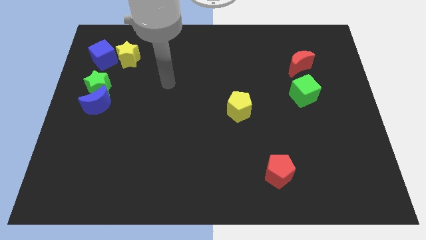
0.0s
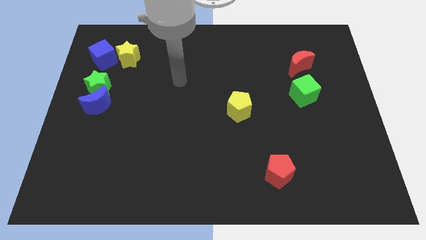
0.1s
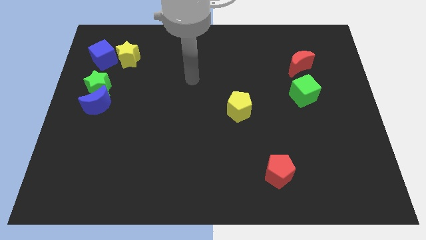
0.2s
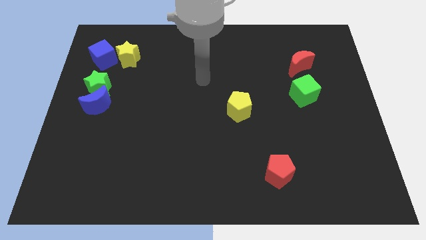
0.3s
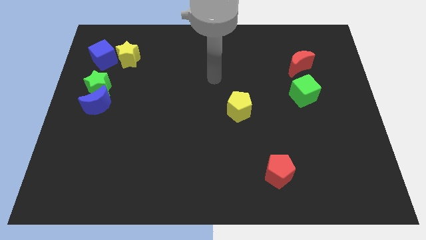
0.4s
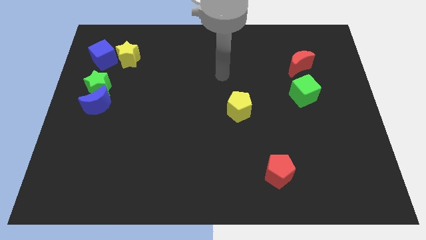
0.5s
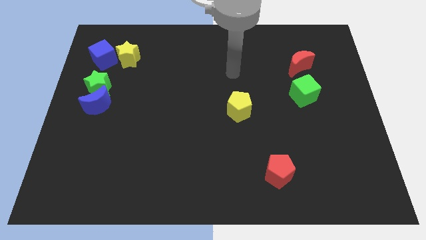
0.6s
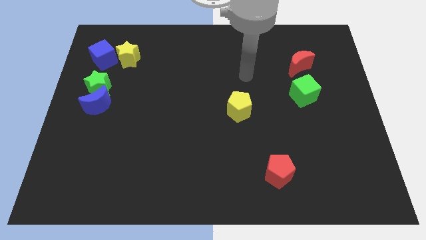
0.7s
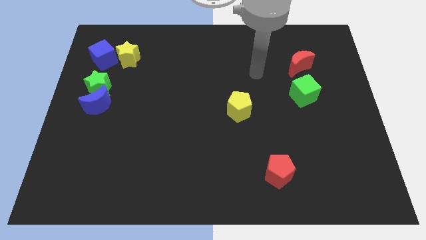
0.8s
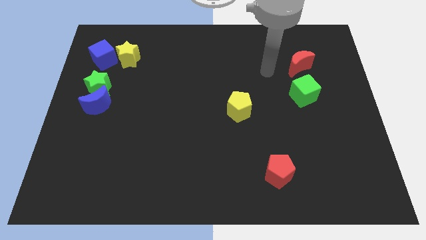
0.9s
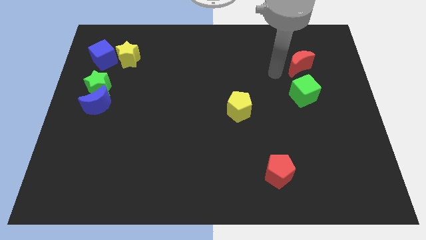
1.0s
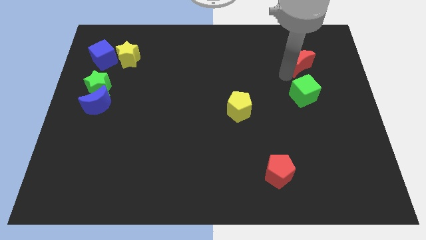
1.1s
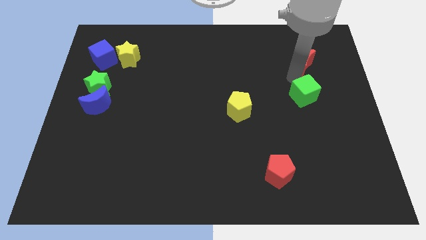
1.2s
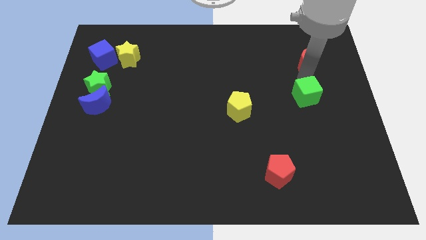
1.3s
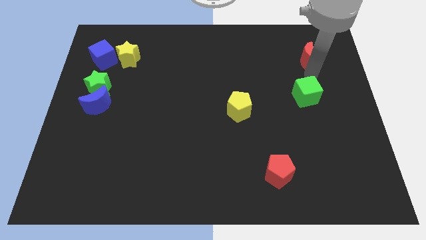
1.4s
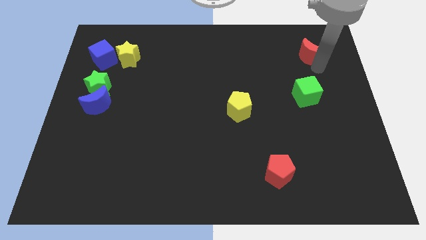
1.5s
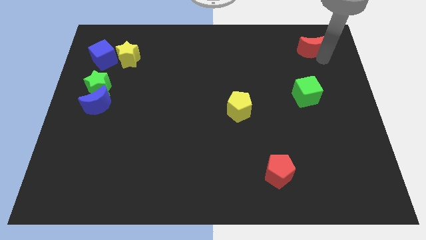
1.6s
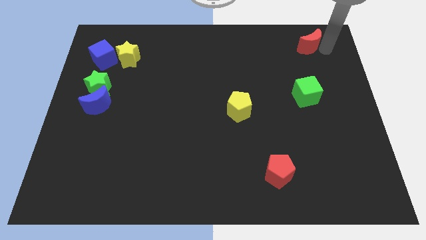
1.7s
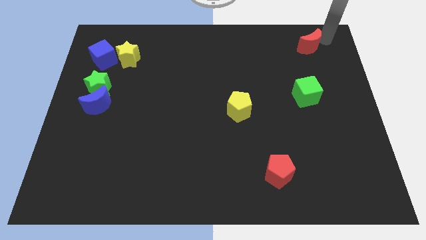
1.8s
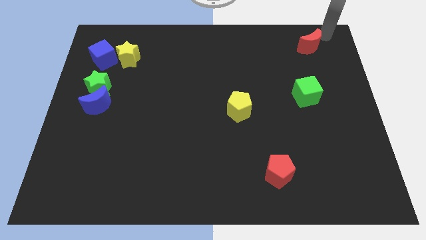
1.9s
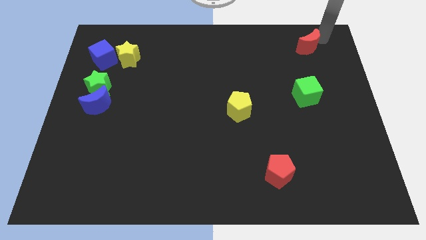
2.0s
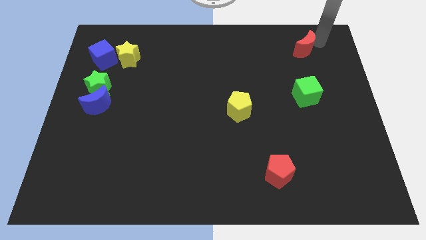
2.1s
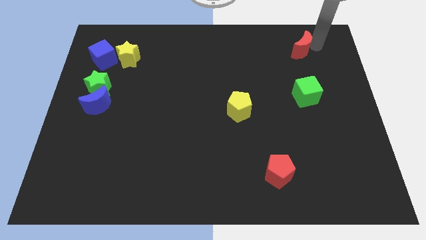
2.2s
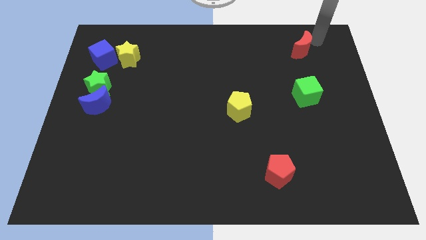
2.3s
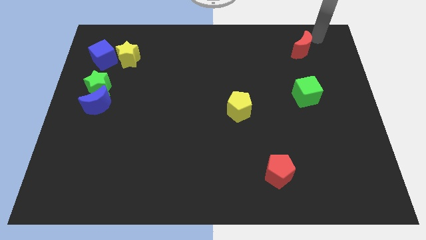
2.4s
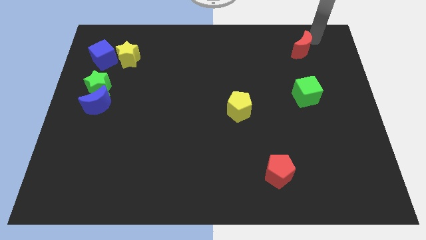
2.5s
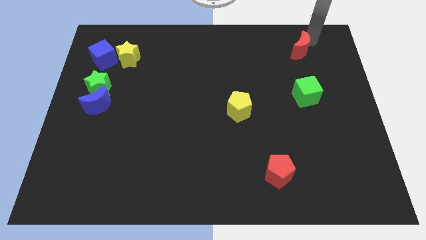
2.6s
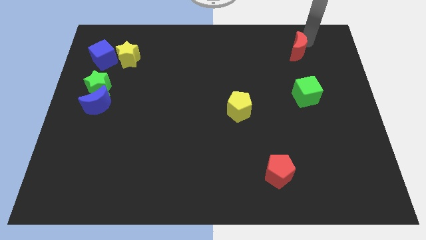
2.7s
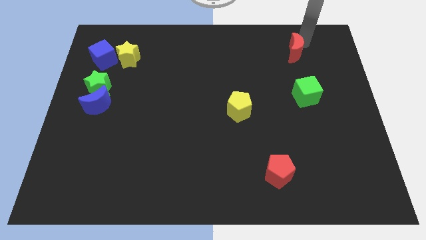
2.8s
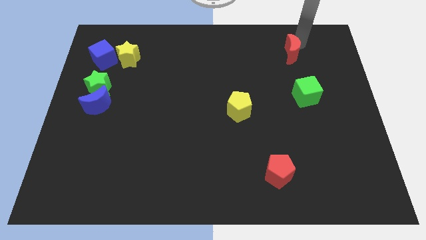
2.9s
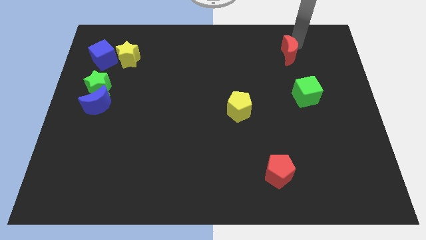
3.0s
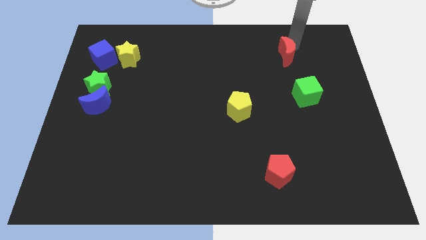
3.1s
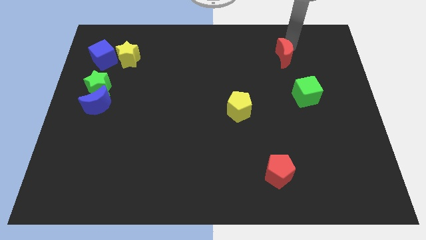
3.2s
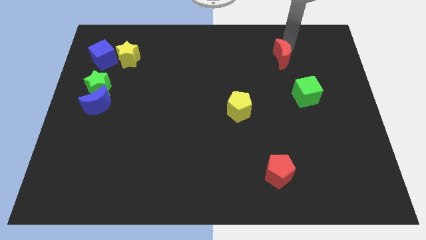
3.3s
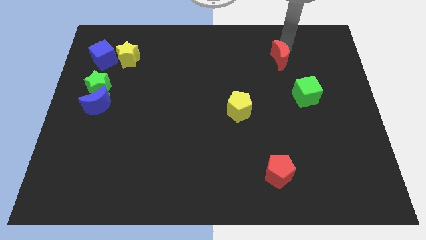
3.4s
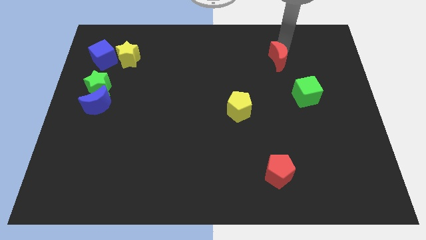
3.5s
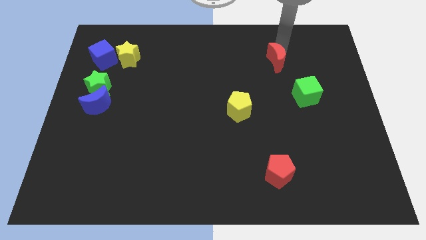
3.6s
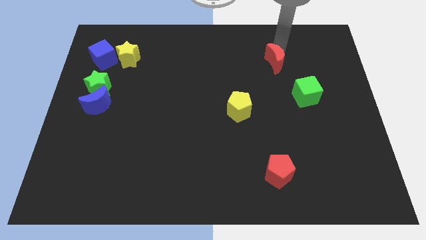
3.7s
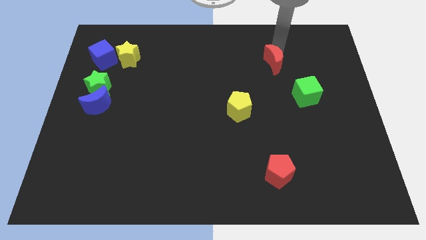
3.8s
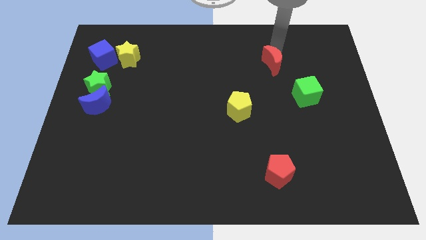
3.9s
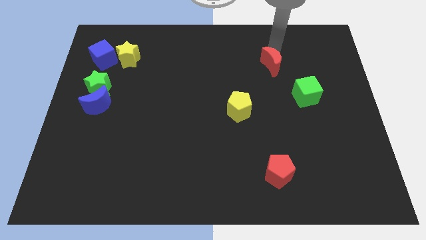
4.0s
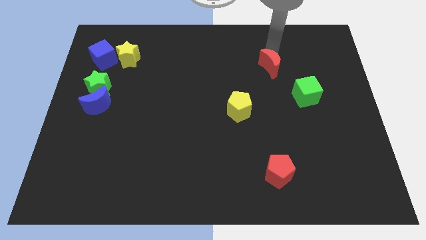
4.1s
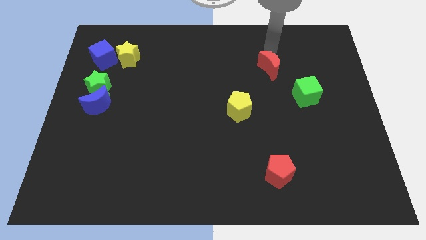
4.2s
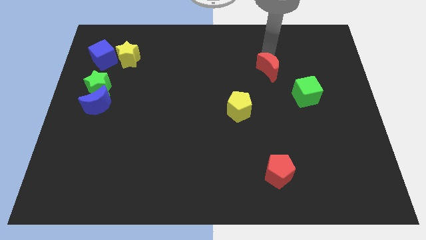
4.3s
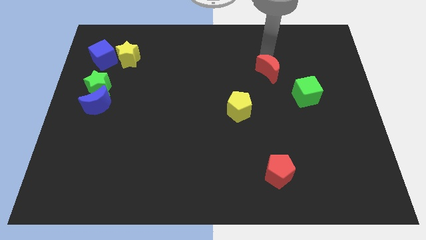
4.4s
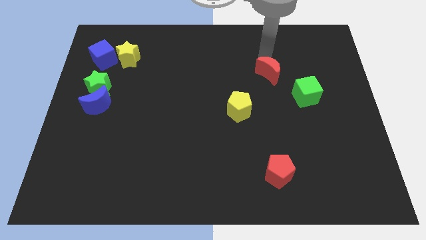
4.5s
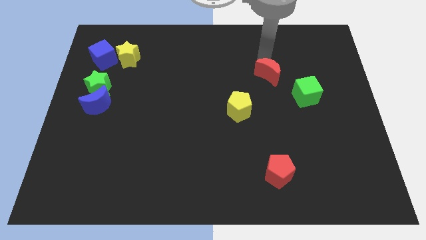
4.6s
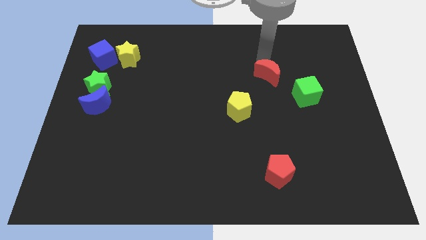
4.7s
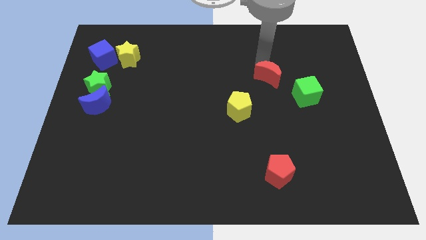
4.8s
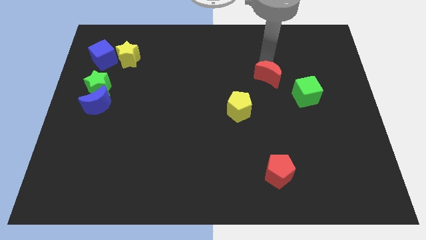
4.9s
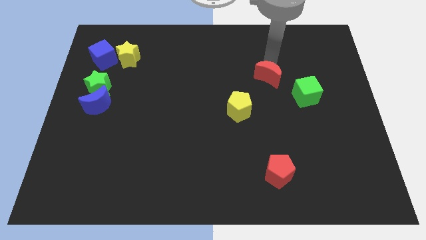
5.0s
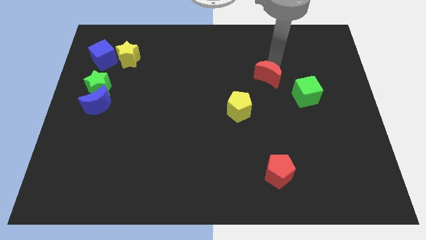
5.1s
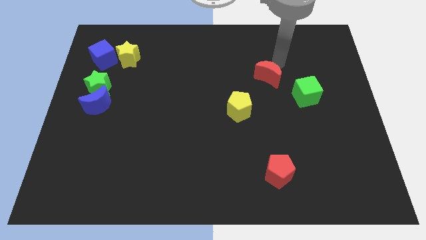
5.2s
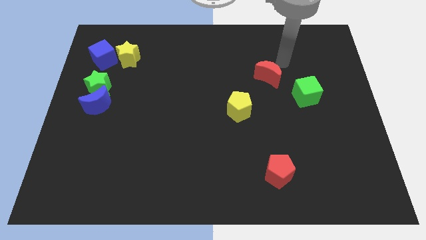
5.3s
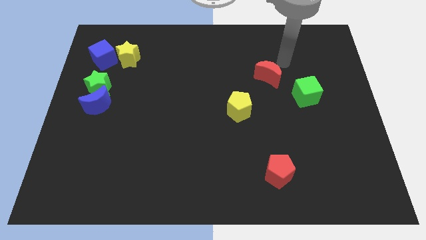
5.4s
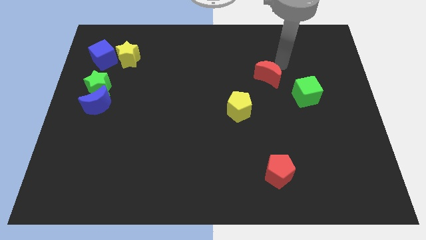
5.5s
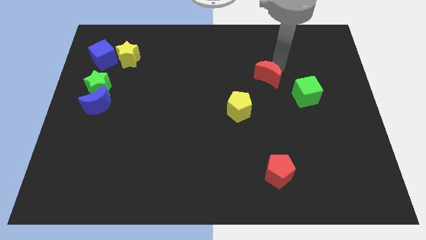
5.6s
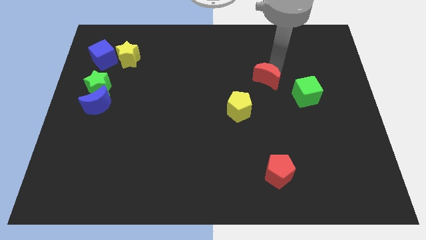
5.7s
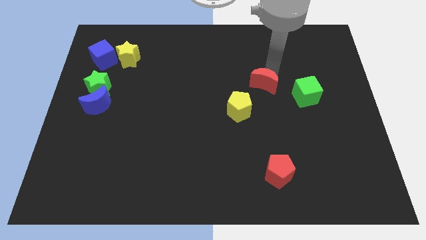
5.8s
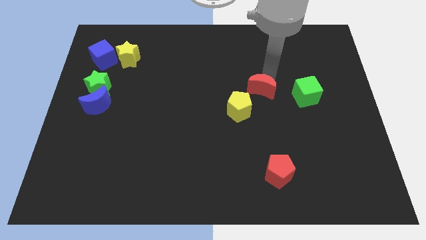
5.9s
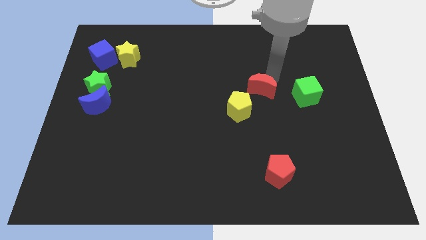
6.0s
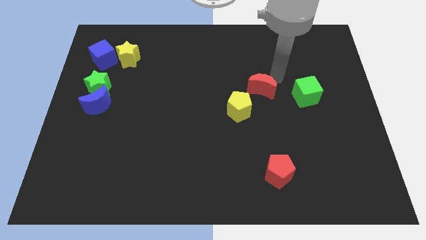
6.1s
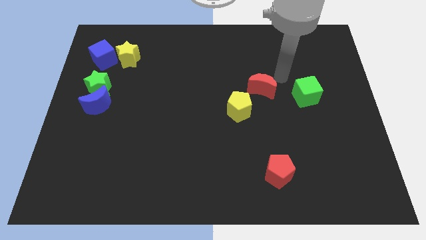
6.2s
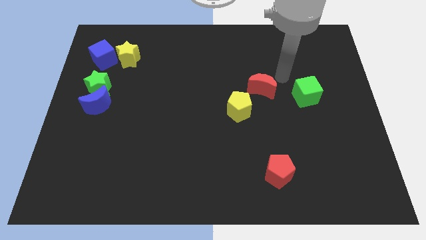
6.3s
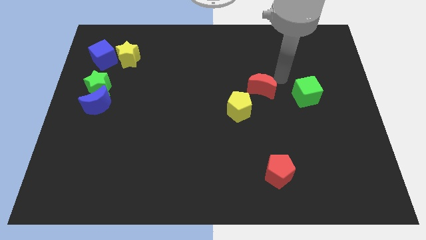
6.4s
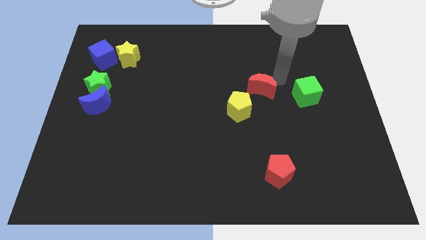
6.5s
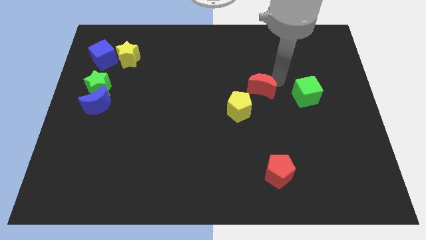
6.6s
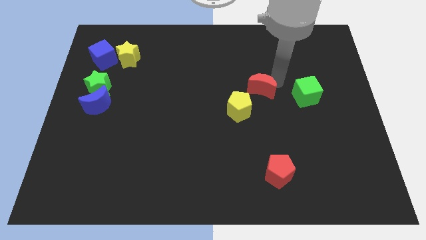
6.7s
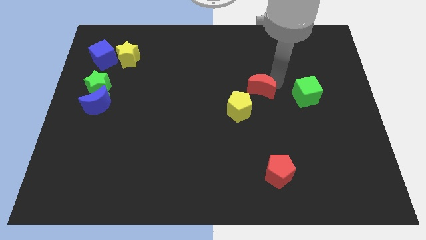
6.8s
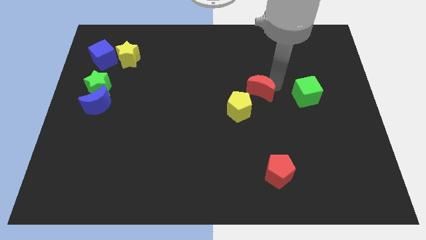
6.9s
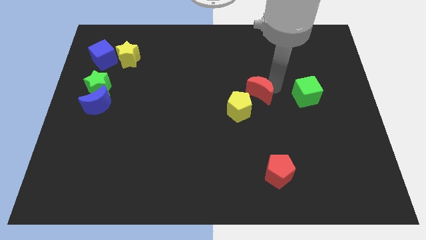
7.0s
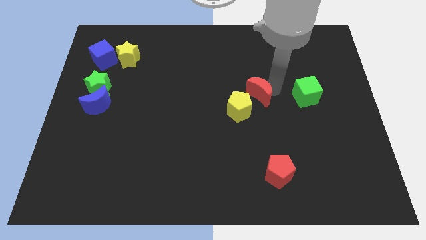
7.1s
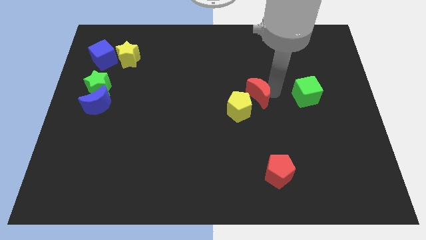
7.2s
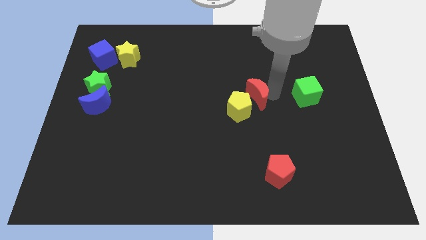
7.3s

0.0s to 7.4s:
put the red moon next to the yellow pentagon

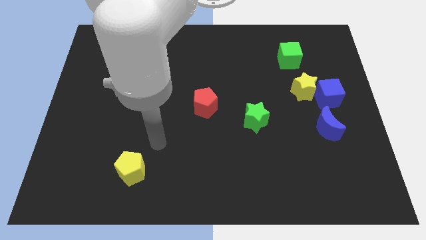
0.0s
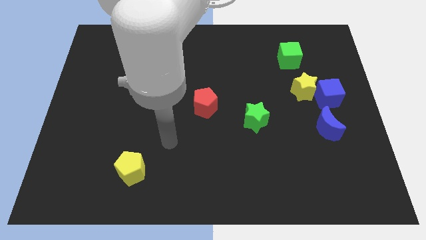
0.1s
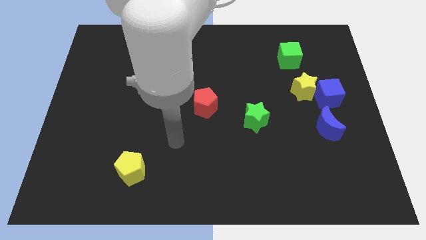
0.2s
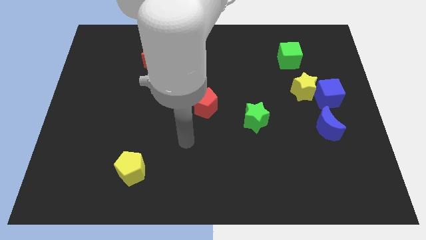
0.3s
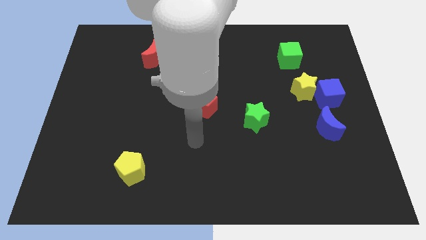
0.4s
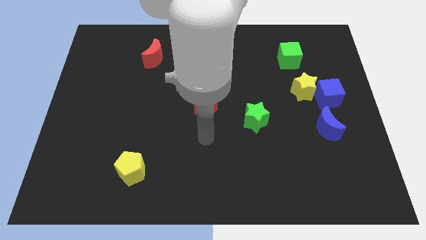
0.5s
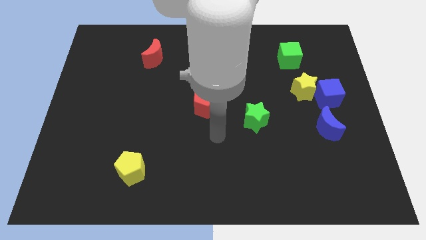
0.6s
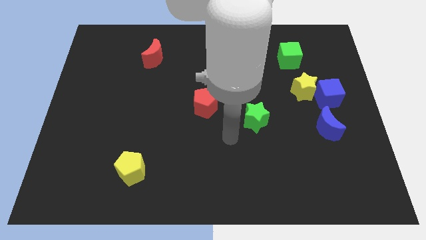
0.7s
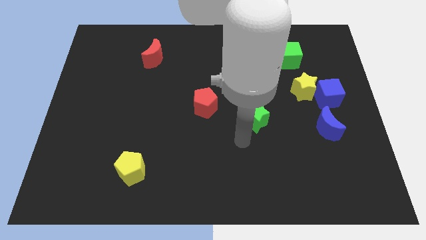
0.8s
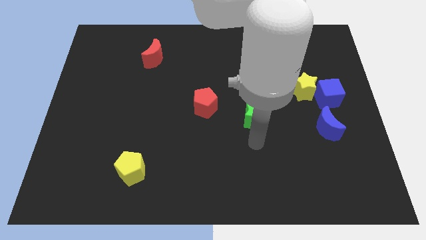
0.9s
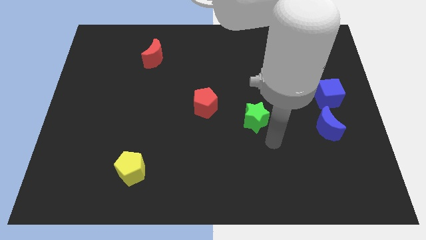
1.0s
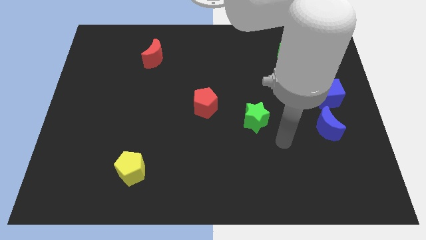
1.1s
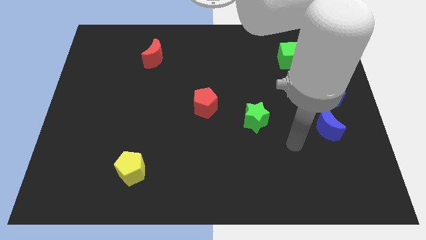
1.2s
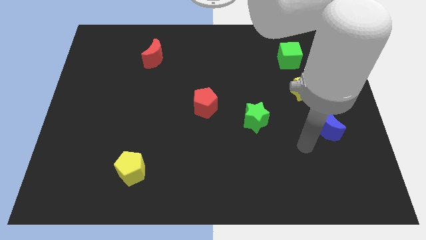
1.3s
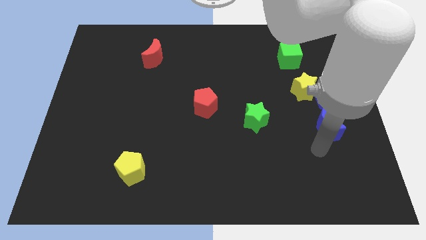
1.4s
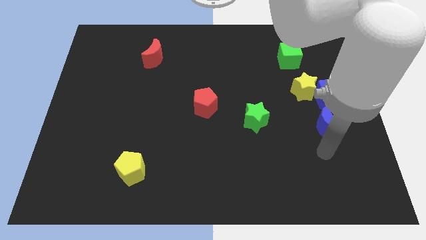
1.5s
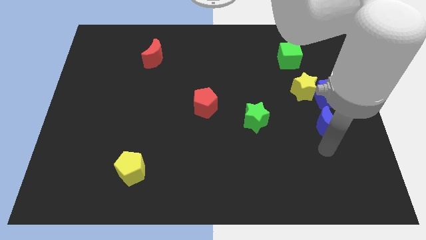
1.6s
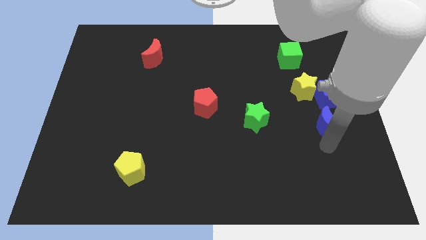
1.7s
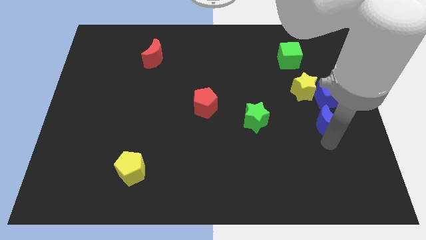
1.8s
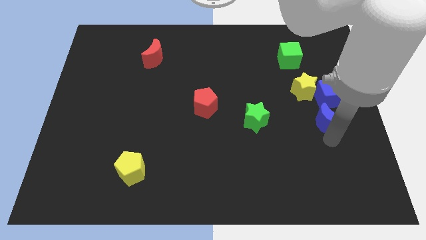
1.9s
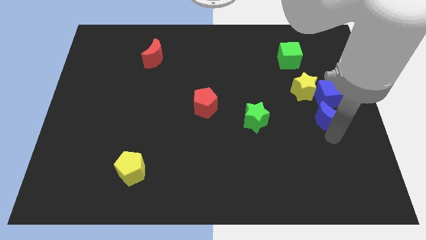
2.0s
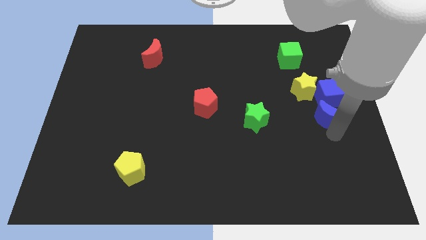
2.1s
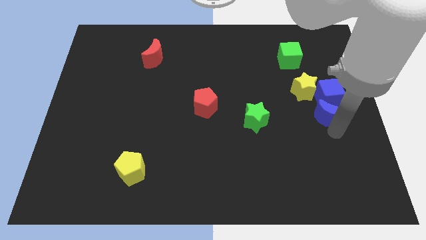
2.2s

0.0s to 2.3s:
put the blue moon to the blue cube
